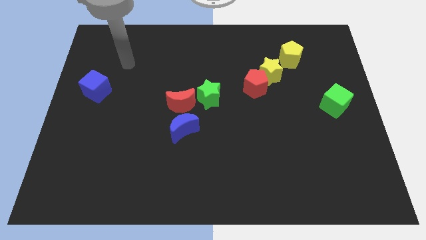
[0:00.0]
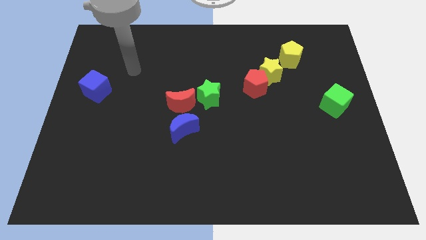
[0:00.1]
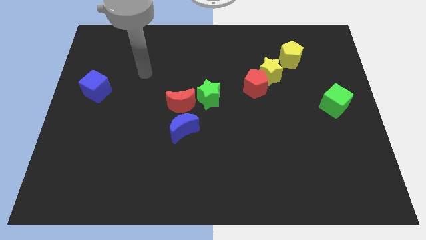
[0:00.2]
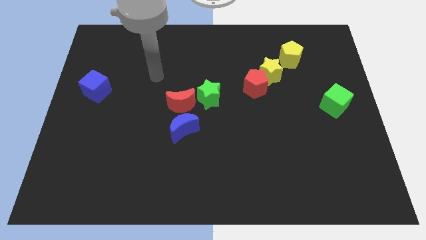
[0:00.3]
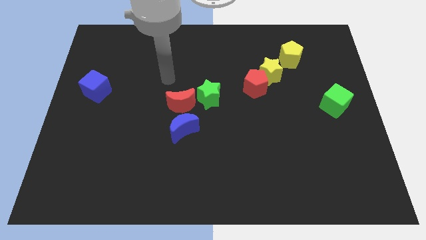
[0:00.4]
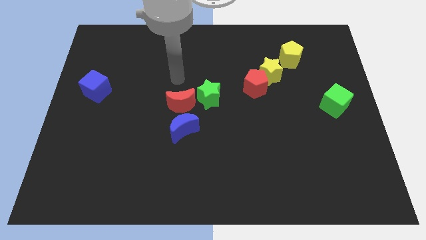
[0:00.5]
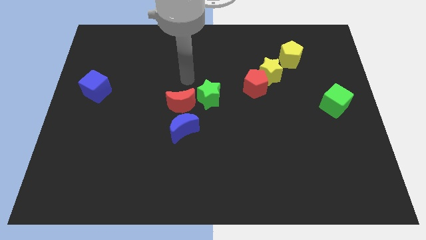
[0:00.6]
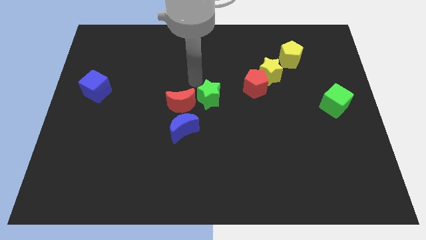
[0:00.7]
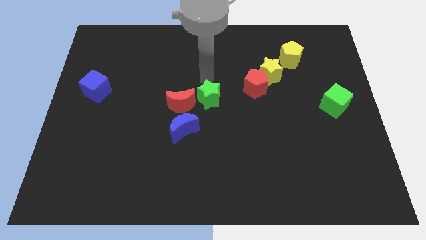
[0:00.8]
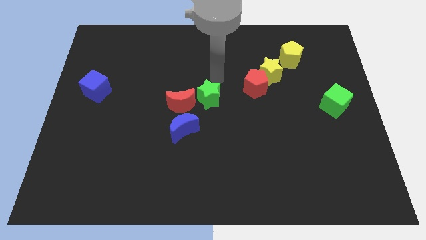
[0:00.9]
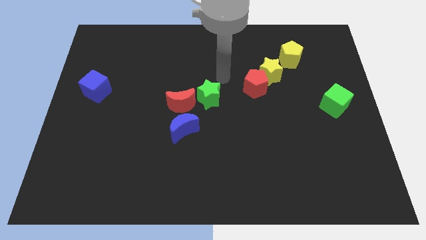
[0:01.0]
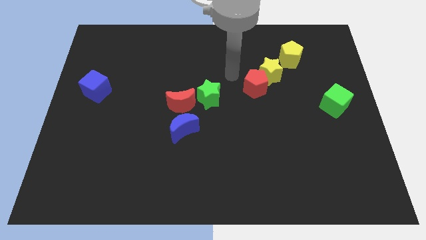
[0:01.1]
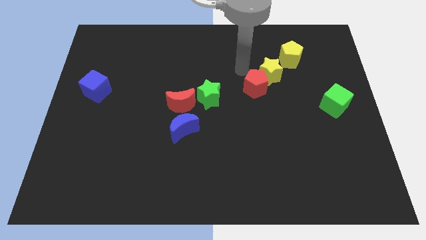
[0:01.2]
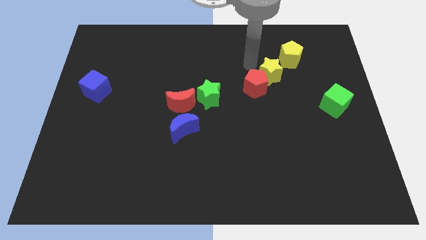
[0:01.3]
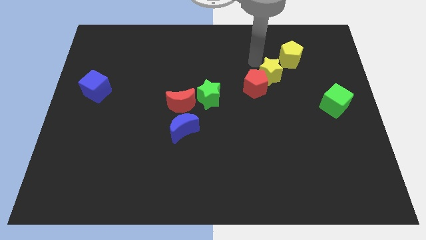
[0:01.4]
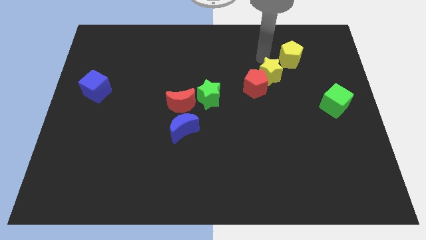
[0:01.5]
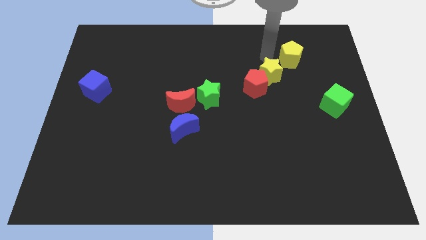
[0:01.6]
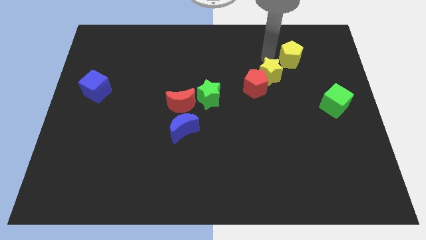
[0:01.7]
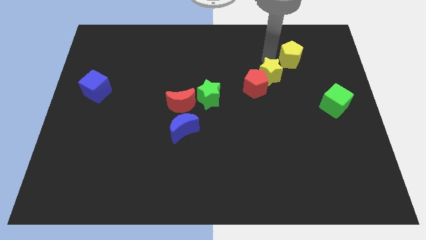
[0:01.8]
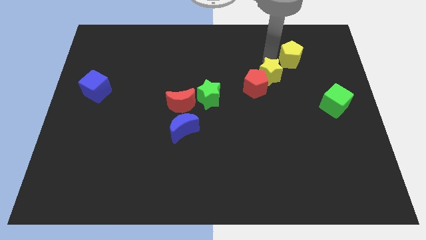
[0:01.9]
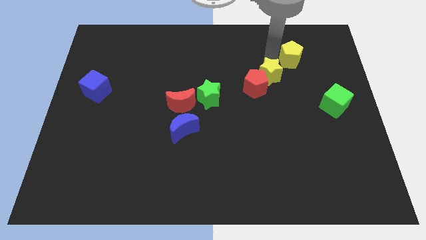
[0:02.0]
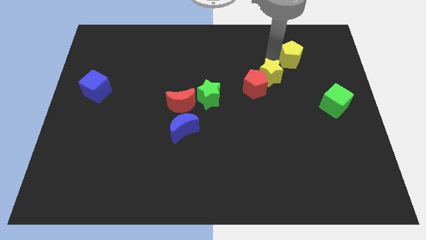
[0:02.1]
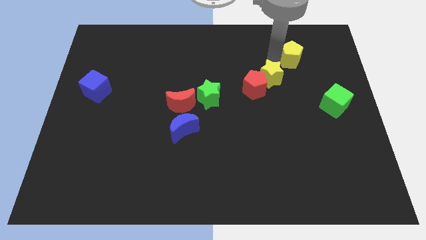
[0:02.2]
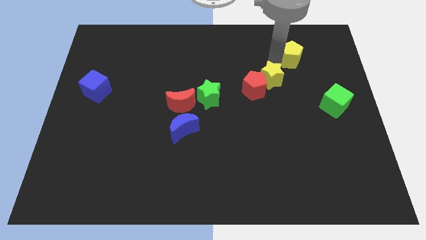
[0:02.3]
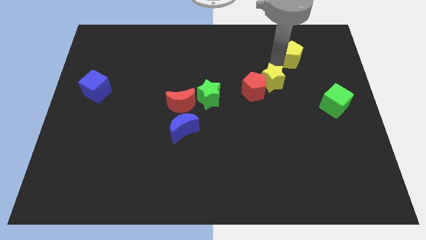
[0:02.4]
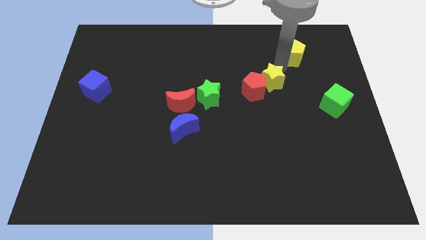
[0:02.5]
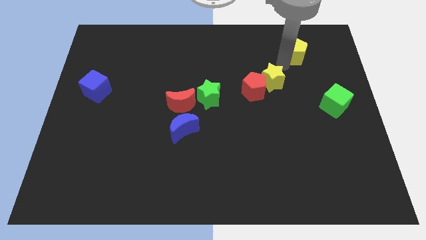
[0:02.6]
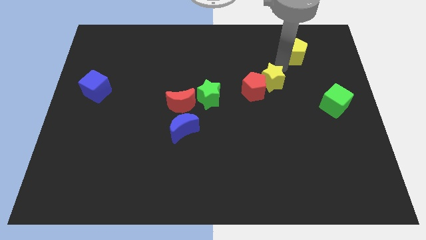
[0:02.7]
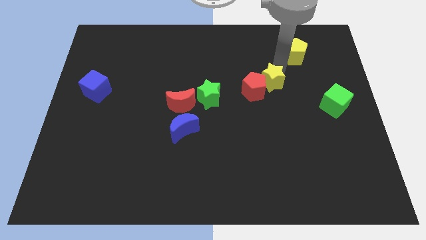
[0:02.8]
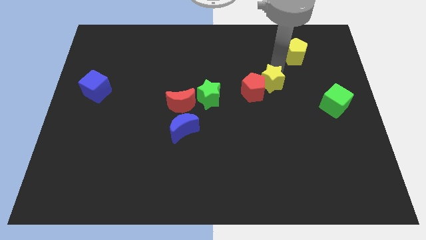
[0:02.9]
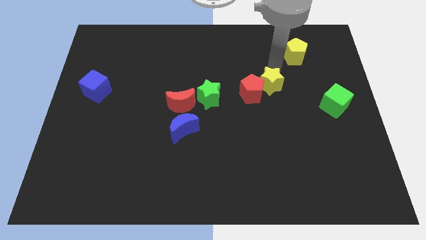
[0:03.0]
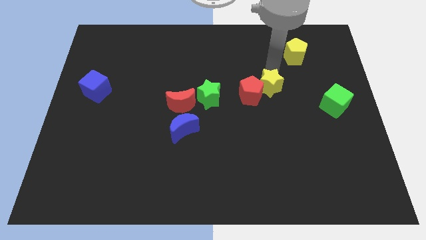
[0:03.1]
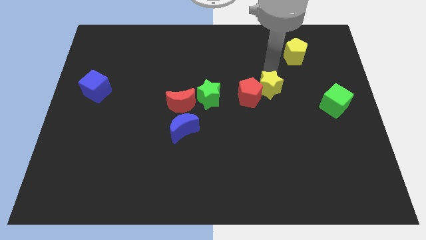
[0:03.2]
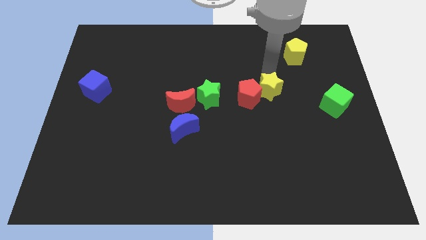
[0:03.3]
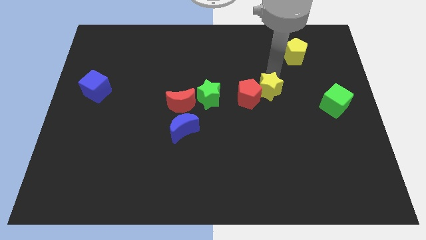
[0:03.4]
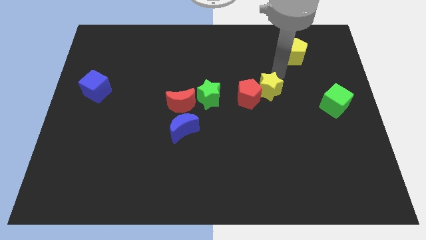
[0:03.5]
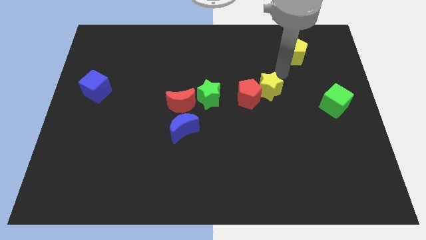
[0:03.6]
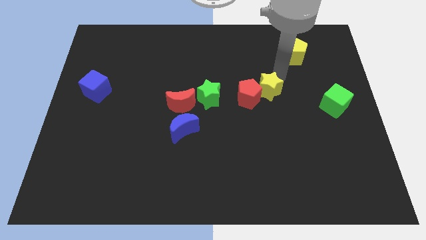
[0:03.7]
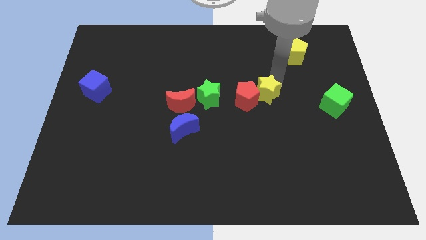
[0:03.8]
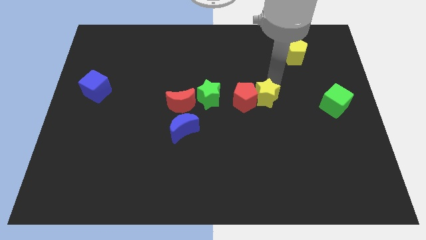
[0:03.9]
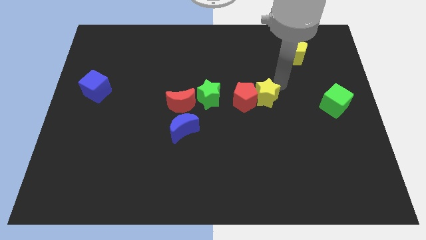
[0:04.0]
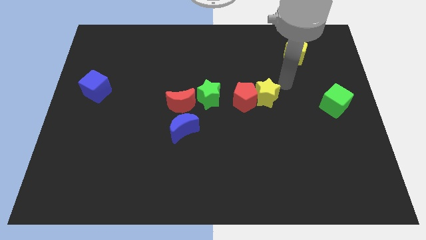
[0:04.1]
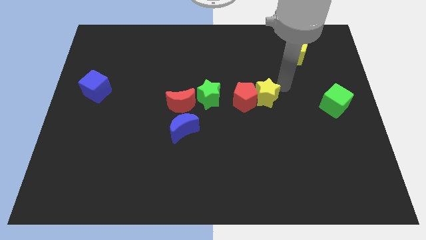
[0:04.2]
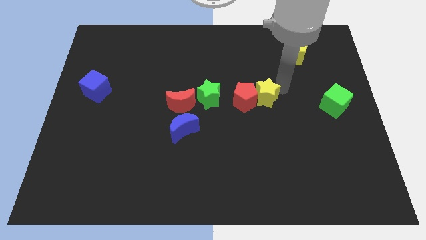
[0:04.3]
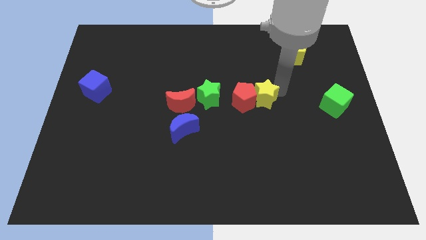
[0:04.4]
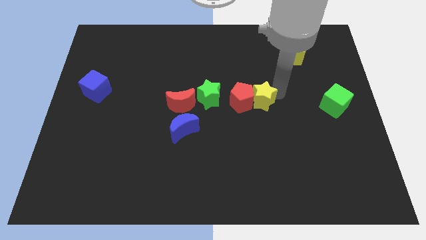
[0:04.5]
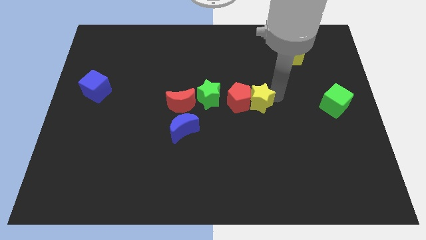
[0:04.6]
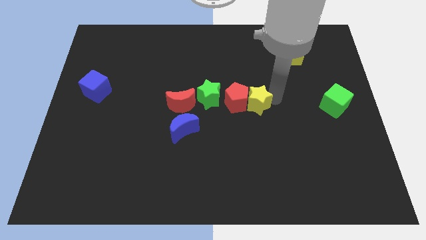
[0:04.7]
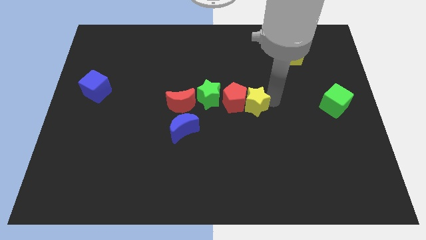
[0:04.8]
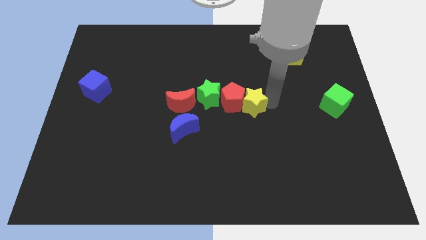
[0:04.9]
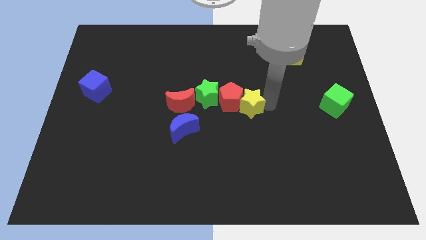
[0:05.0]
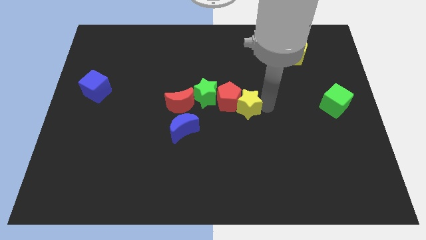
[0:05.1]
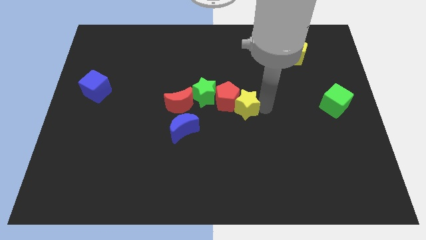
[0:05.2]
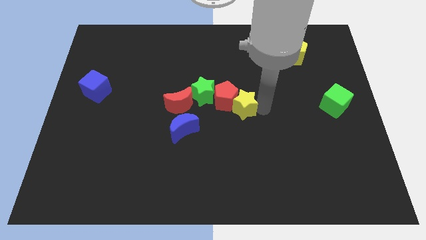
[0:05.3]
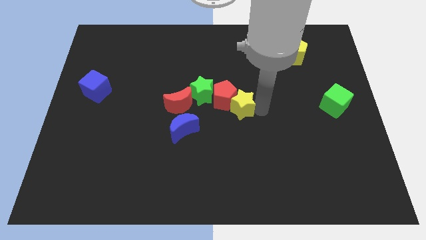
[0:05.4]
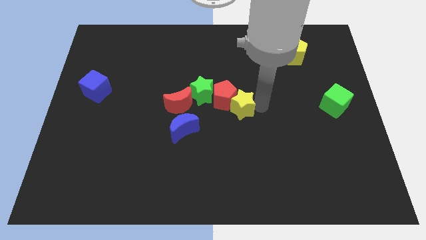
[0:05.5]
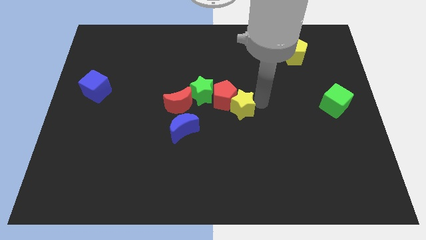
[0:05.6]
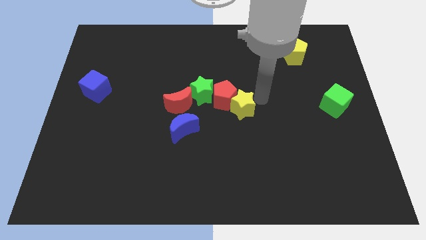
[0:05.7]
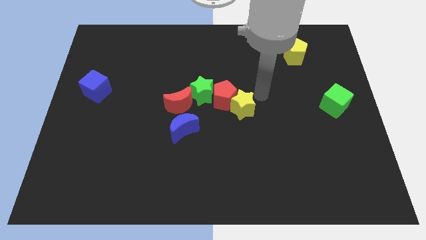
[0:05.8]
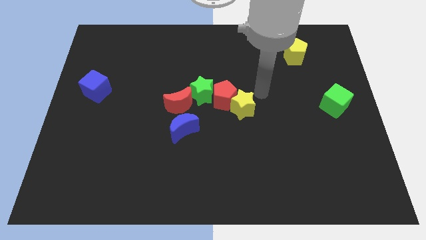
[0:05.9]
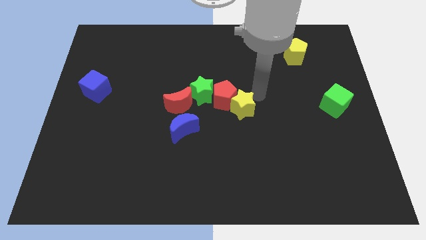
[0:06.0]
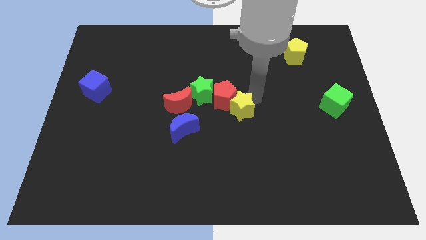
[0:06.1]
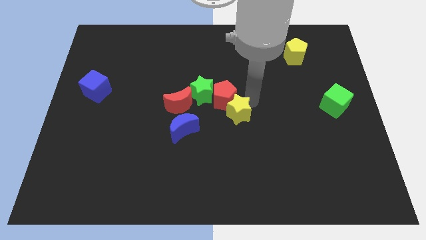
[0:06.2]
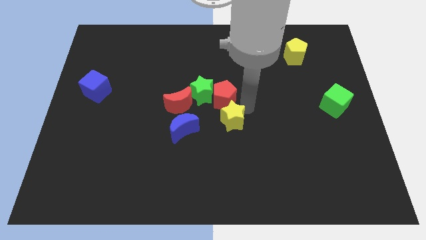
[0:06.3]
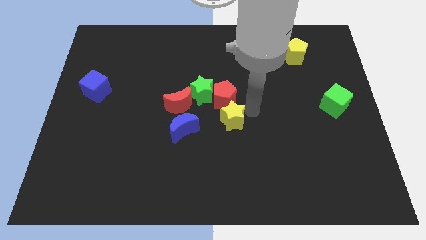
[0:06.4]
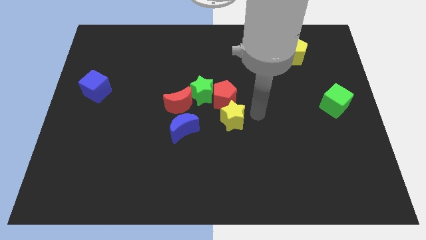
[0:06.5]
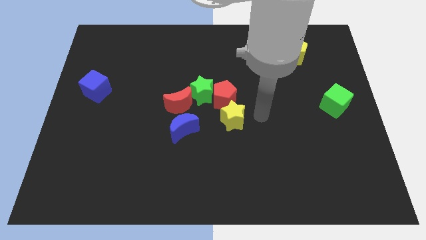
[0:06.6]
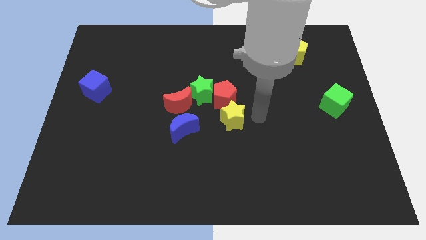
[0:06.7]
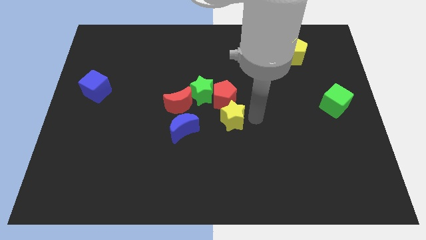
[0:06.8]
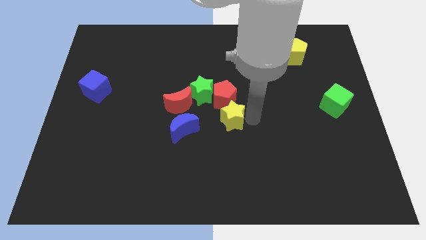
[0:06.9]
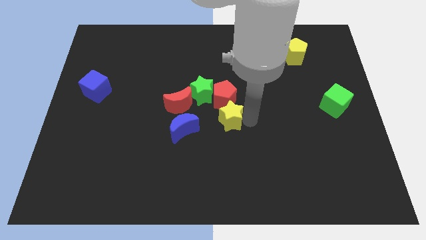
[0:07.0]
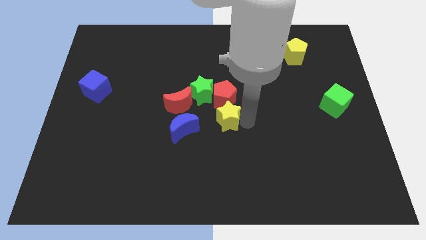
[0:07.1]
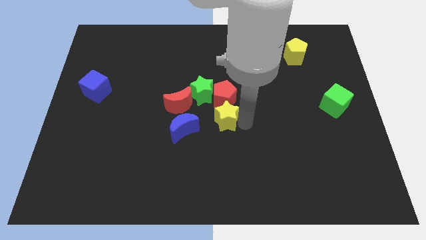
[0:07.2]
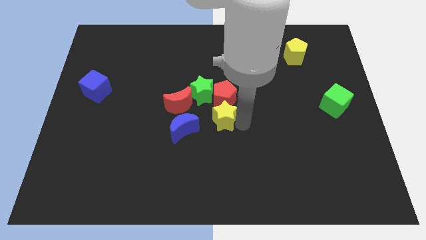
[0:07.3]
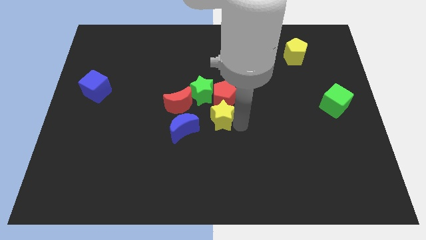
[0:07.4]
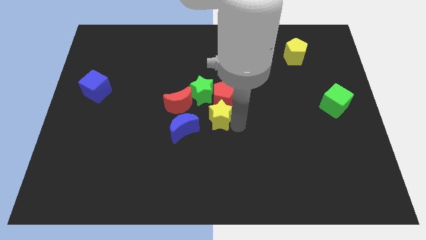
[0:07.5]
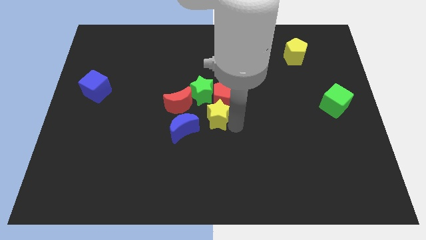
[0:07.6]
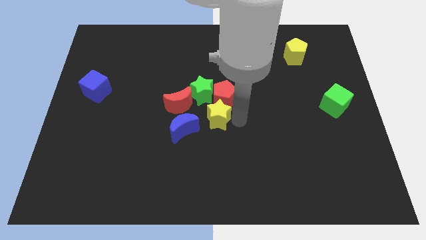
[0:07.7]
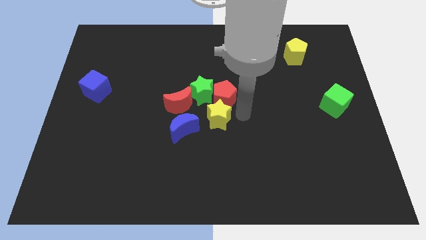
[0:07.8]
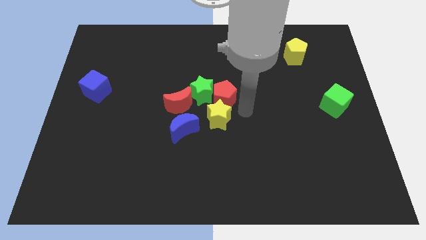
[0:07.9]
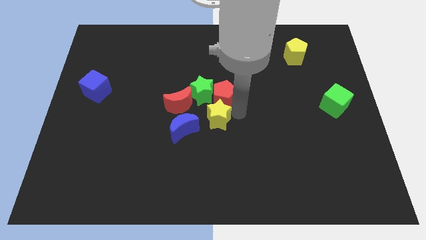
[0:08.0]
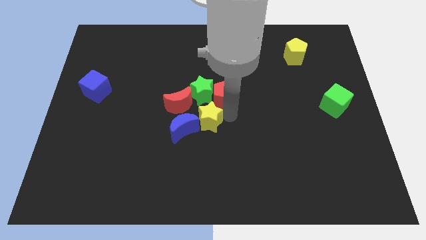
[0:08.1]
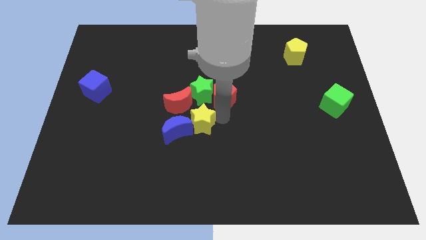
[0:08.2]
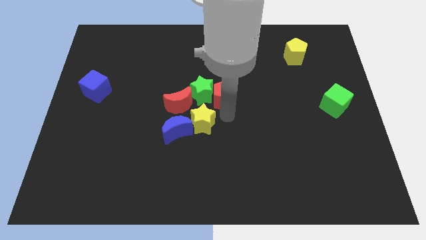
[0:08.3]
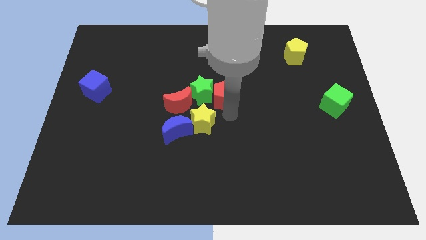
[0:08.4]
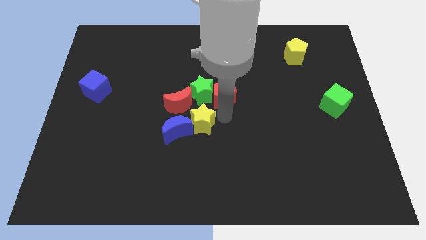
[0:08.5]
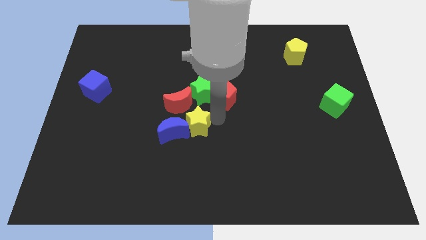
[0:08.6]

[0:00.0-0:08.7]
put the yellow star close to the blue moon
